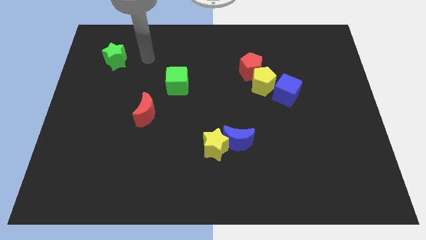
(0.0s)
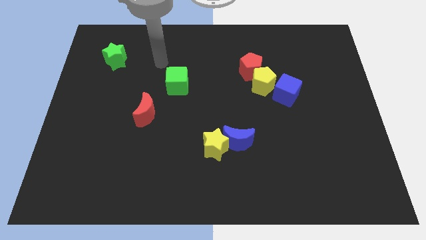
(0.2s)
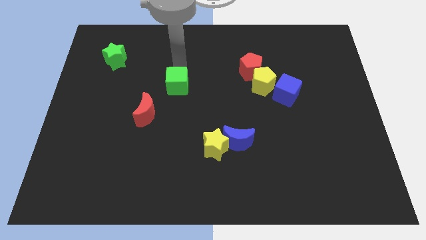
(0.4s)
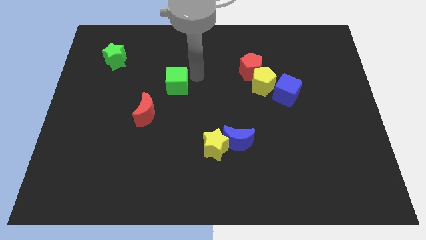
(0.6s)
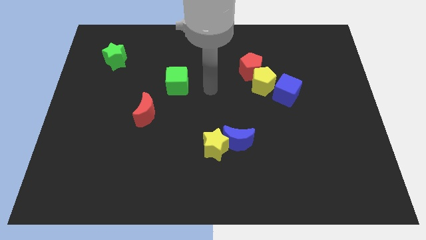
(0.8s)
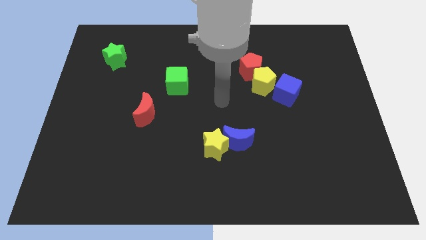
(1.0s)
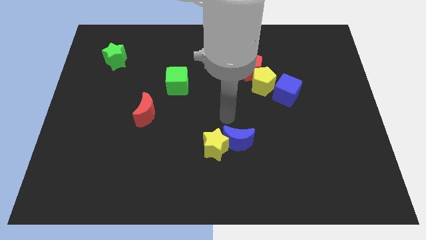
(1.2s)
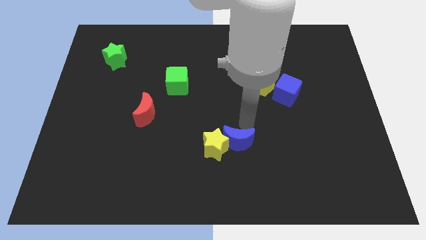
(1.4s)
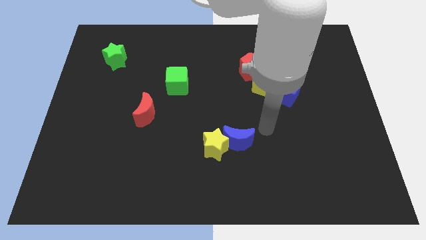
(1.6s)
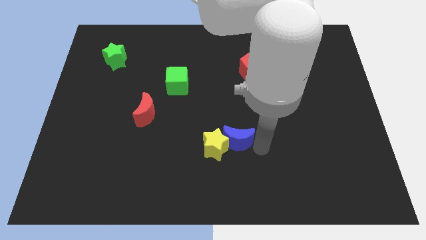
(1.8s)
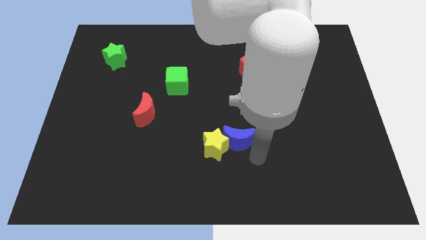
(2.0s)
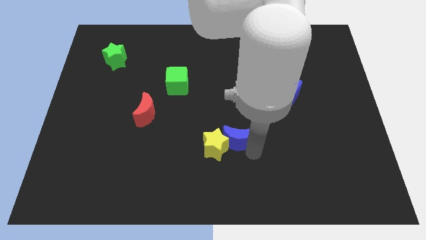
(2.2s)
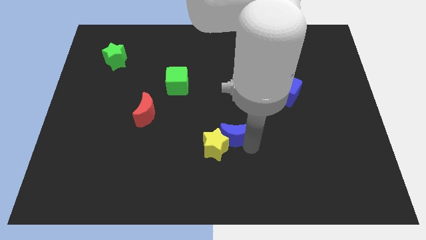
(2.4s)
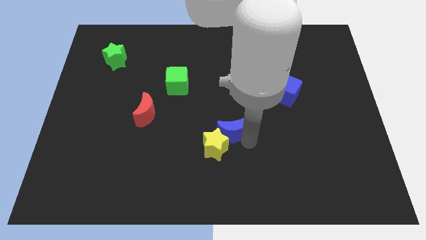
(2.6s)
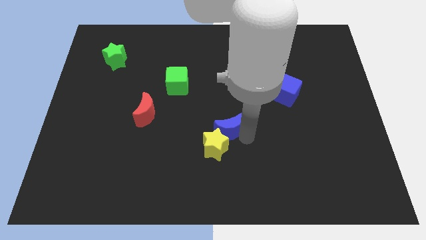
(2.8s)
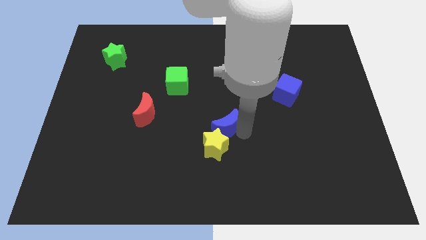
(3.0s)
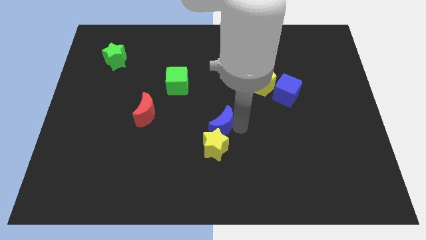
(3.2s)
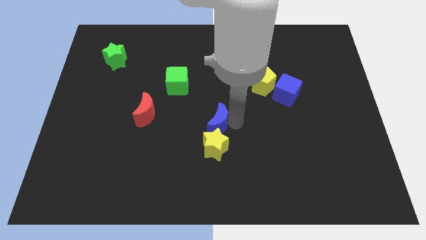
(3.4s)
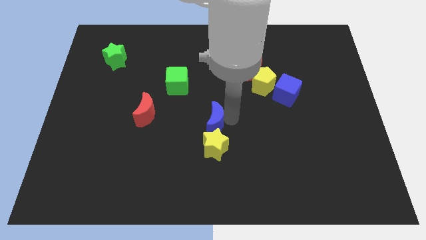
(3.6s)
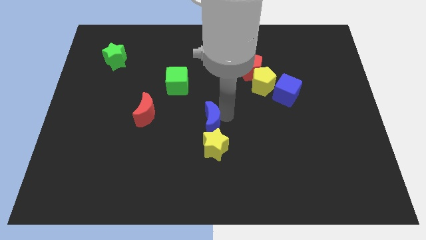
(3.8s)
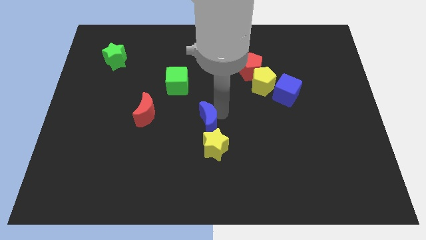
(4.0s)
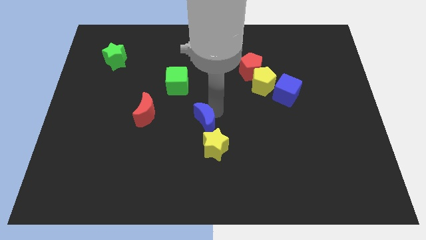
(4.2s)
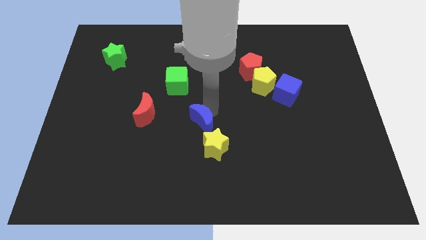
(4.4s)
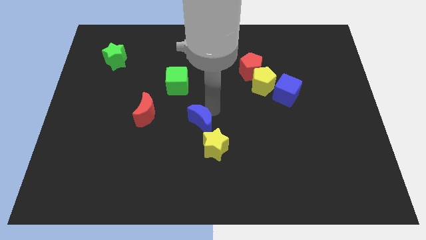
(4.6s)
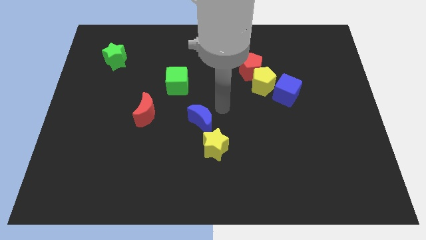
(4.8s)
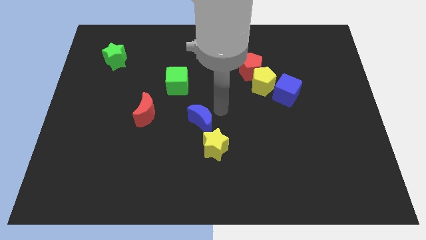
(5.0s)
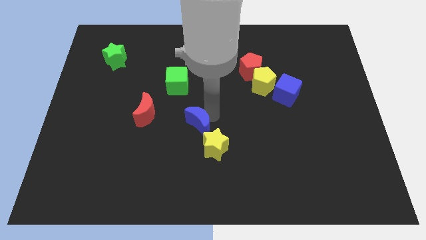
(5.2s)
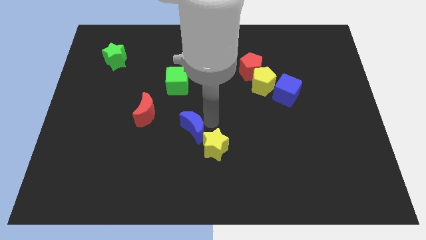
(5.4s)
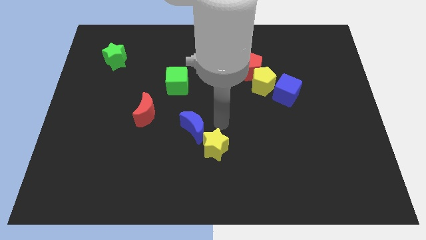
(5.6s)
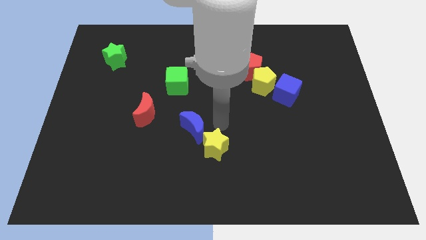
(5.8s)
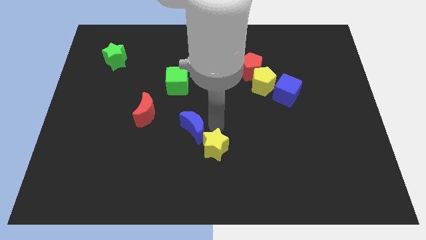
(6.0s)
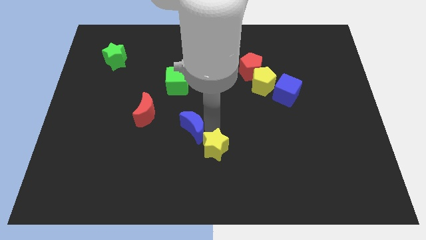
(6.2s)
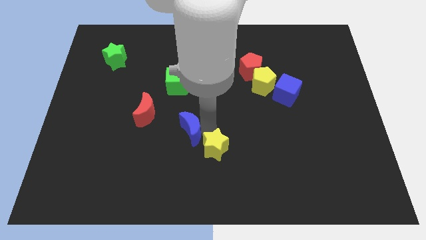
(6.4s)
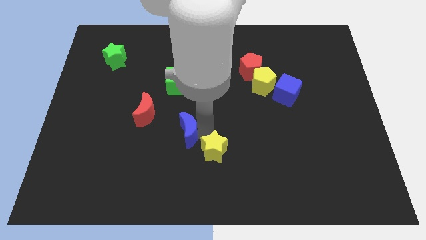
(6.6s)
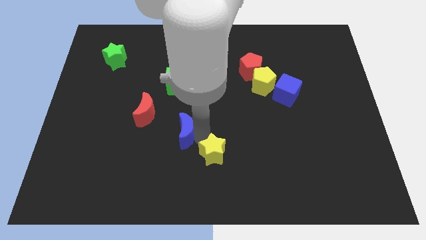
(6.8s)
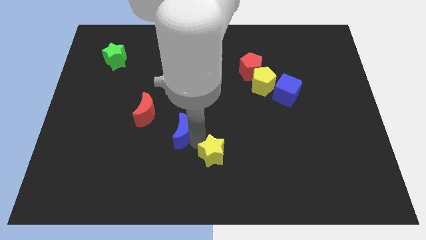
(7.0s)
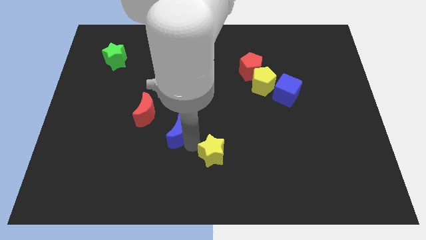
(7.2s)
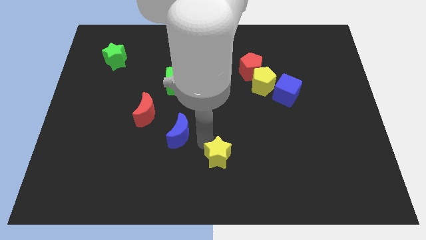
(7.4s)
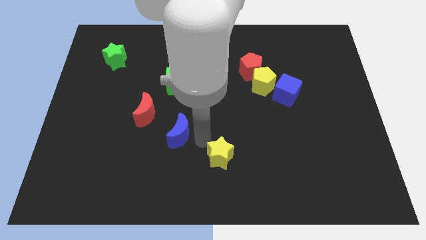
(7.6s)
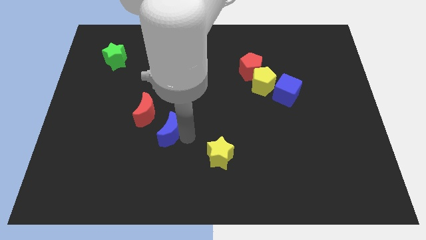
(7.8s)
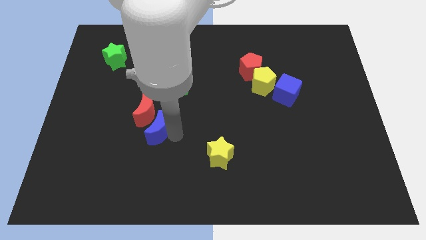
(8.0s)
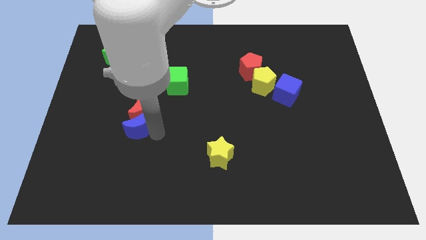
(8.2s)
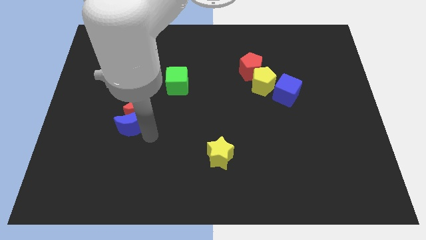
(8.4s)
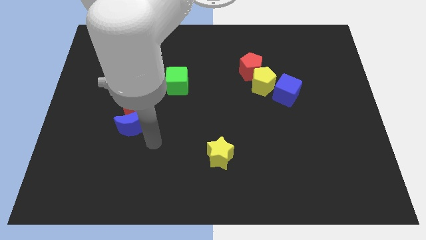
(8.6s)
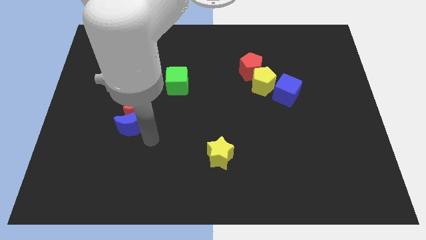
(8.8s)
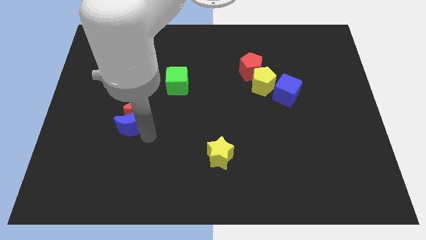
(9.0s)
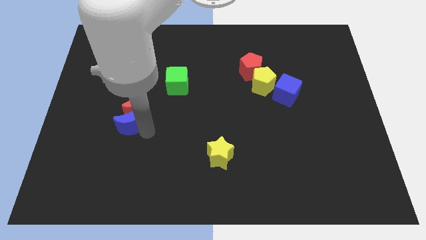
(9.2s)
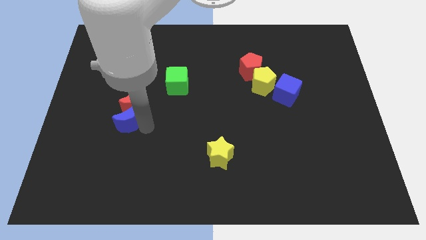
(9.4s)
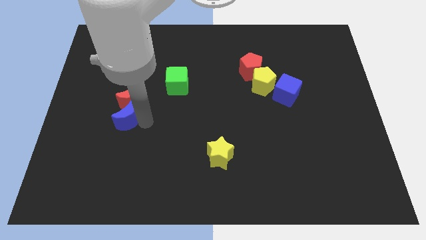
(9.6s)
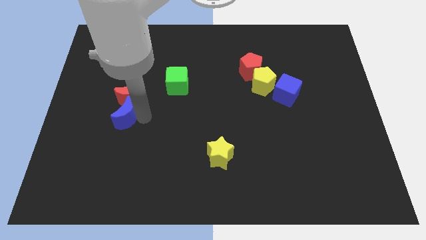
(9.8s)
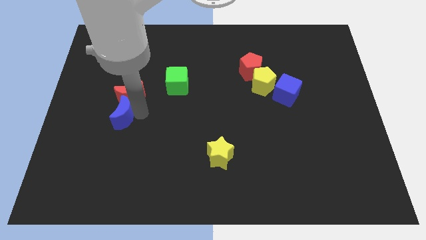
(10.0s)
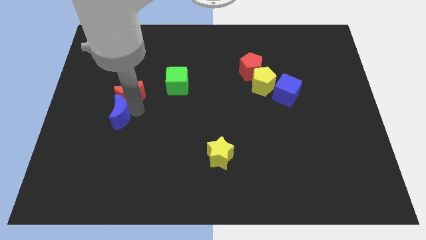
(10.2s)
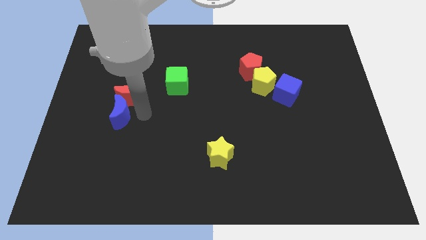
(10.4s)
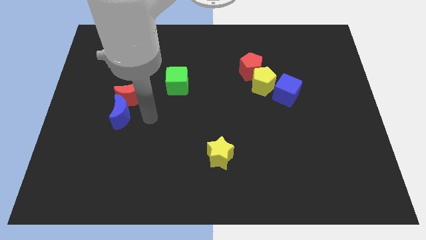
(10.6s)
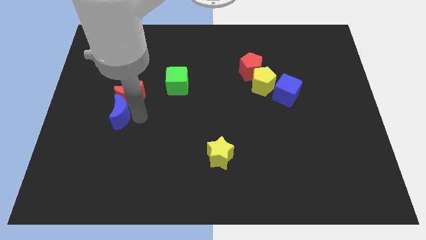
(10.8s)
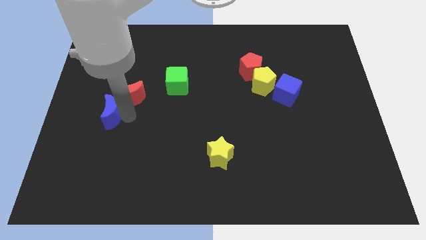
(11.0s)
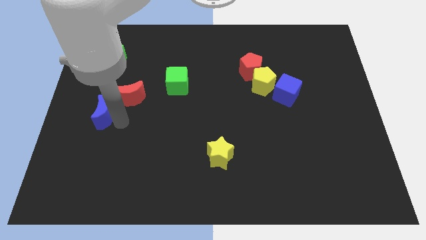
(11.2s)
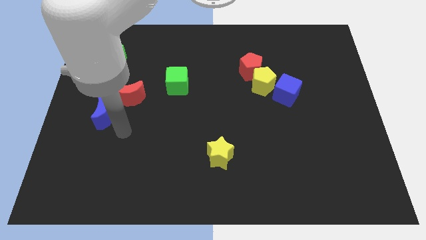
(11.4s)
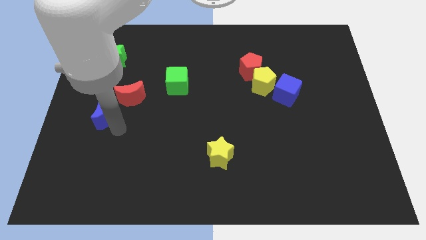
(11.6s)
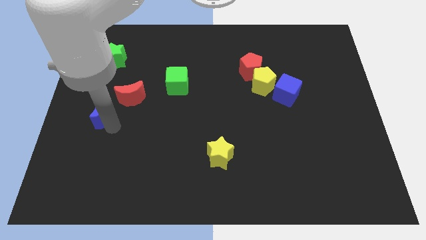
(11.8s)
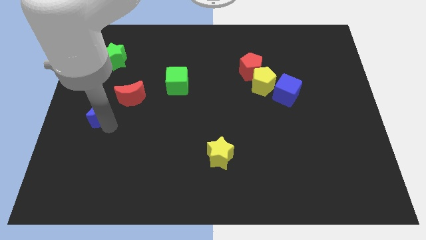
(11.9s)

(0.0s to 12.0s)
push the blue moon to the left side of the board

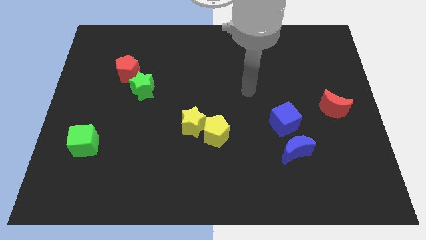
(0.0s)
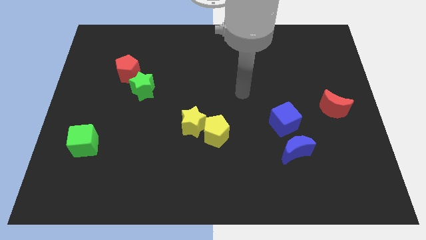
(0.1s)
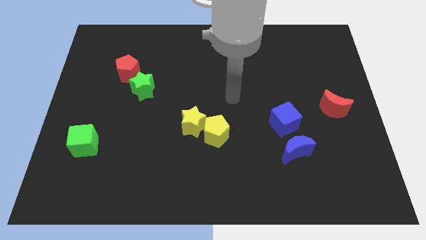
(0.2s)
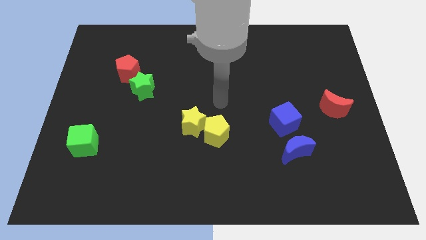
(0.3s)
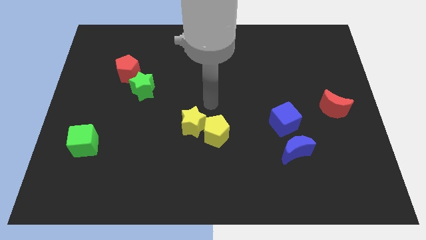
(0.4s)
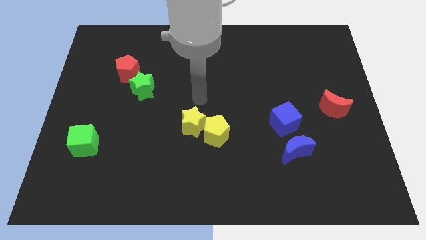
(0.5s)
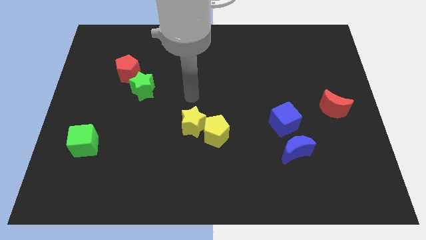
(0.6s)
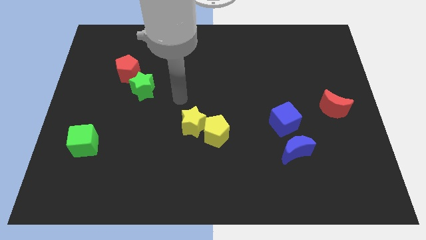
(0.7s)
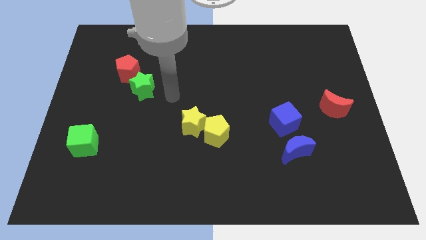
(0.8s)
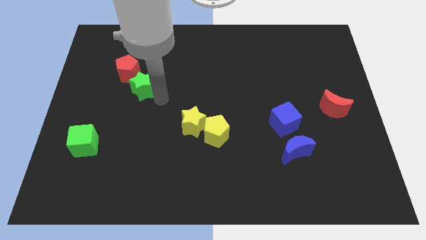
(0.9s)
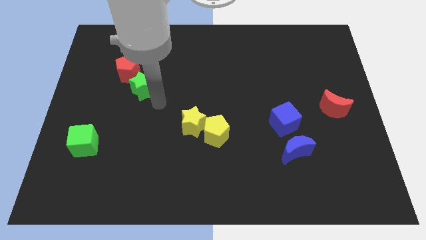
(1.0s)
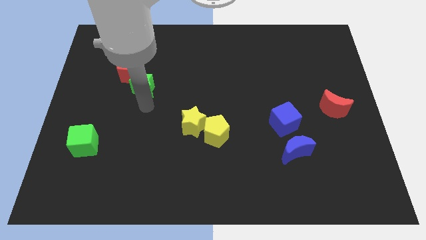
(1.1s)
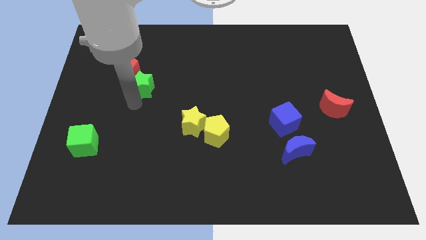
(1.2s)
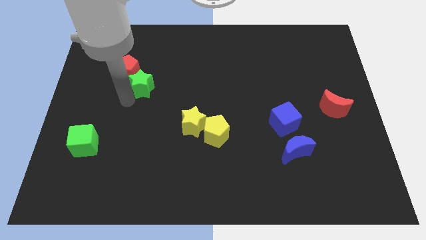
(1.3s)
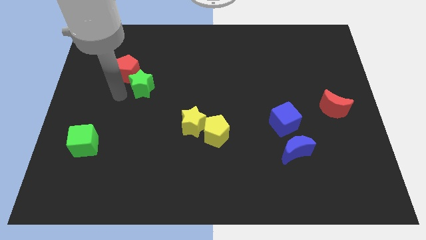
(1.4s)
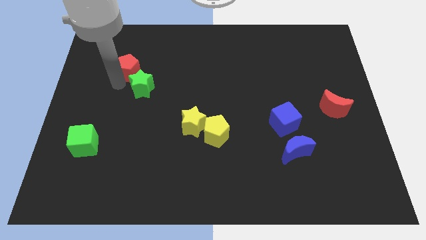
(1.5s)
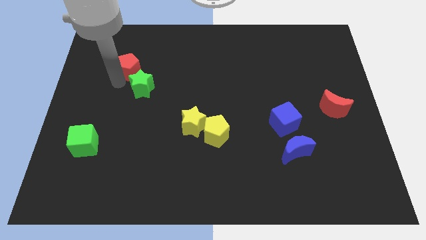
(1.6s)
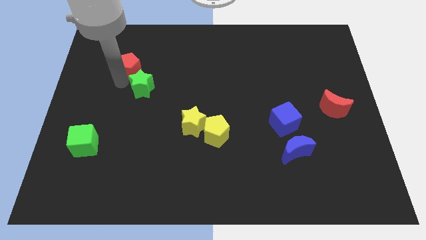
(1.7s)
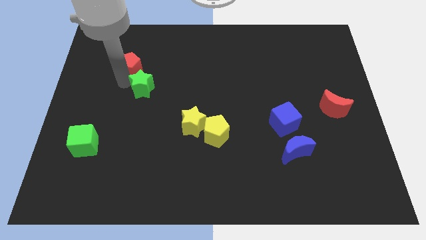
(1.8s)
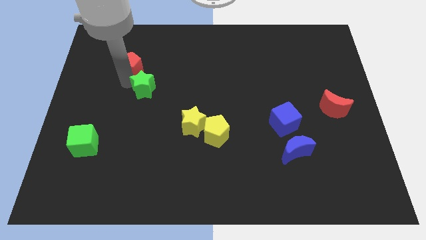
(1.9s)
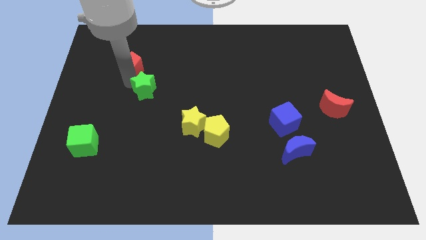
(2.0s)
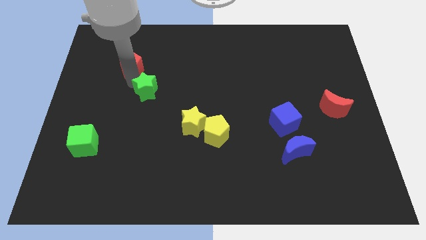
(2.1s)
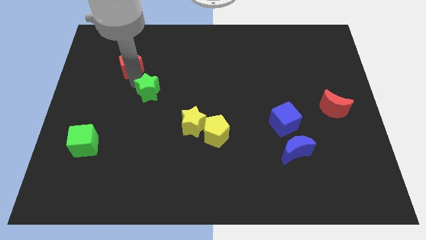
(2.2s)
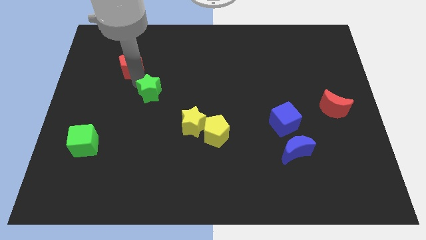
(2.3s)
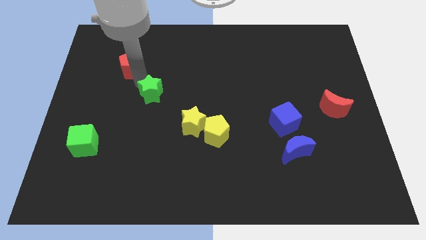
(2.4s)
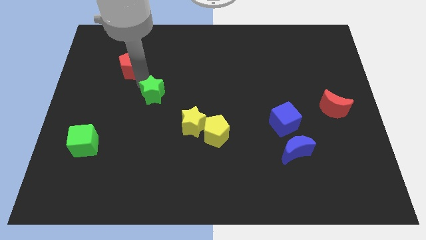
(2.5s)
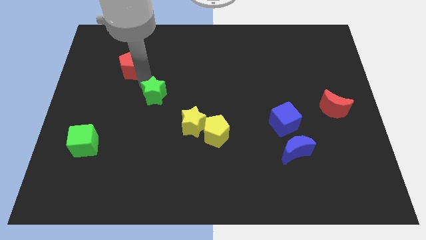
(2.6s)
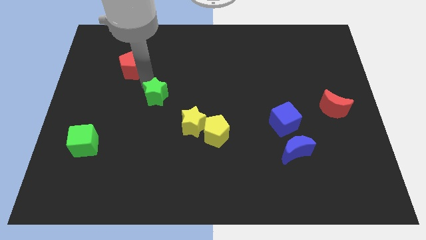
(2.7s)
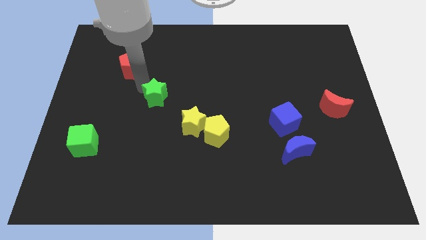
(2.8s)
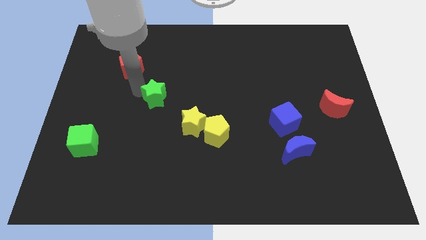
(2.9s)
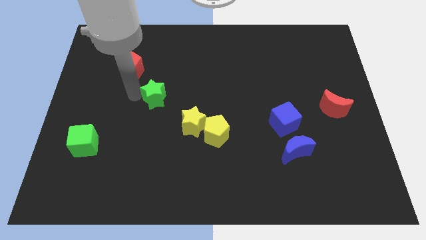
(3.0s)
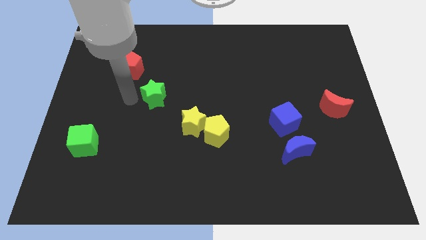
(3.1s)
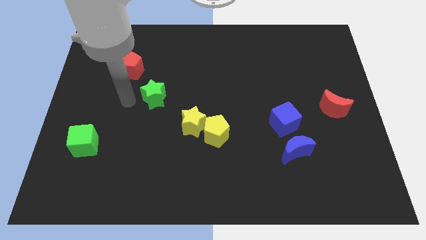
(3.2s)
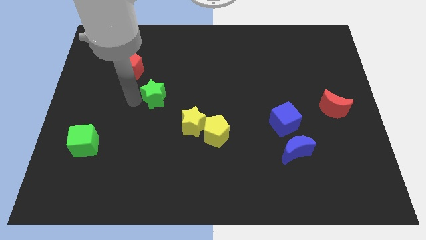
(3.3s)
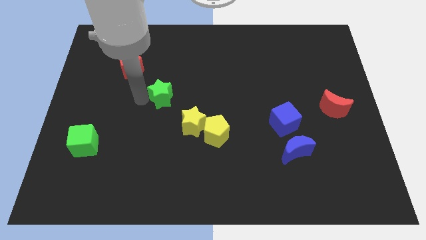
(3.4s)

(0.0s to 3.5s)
move the green star to the center of the board
